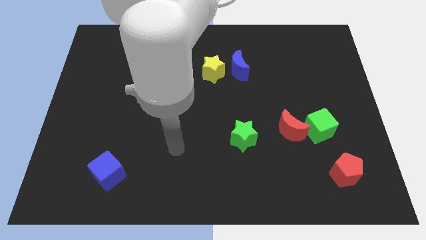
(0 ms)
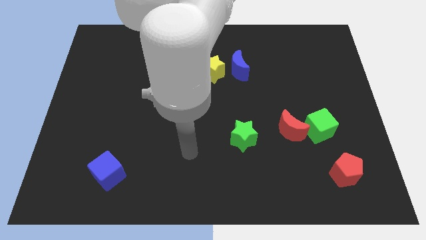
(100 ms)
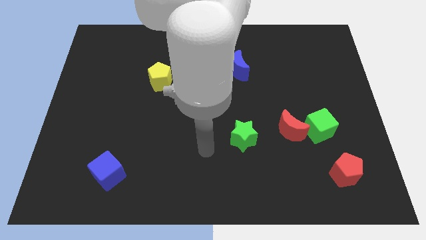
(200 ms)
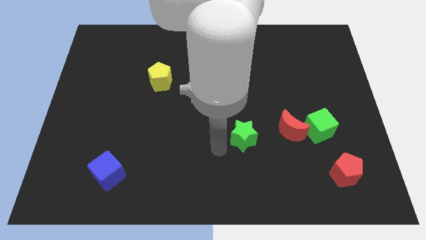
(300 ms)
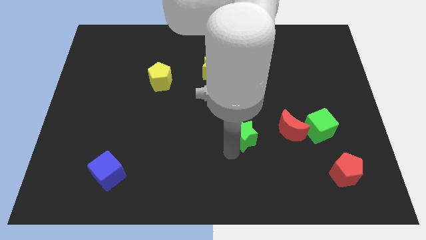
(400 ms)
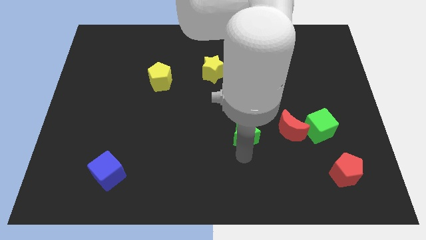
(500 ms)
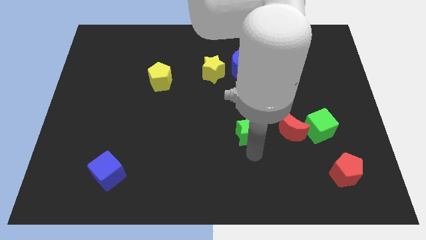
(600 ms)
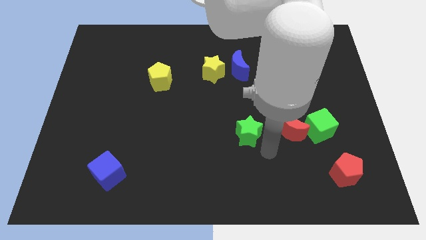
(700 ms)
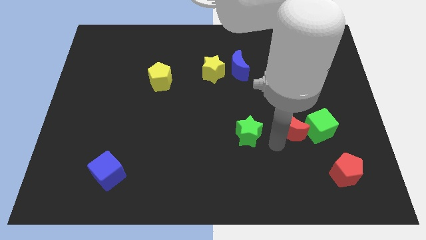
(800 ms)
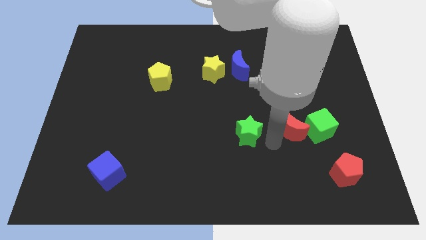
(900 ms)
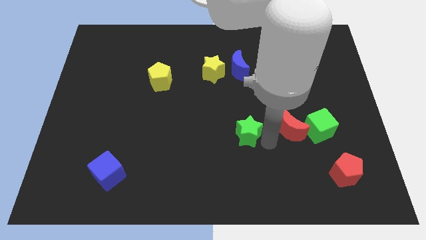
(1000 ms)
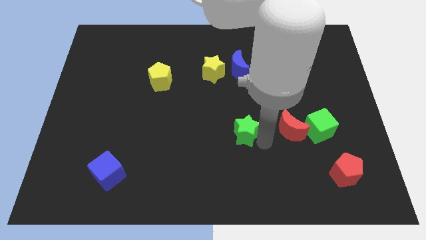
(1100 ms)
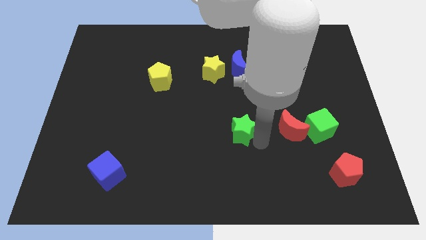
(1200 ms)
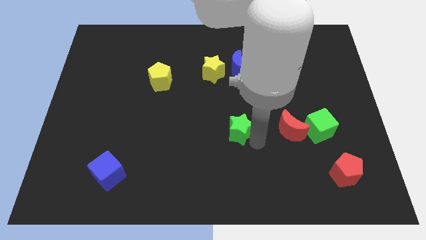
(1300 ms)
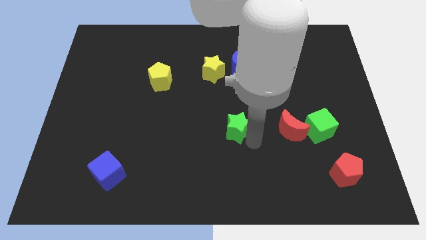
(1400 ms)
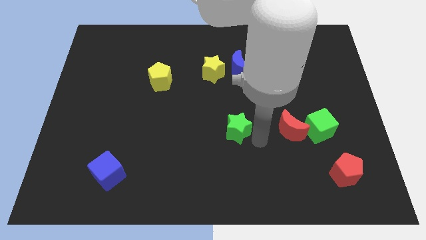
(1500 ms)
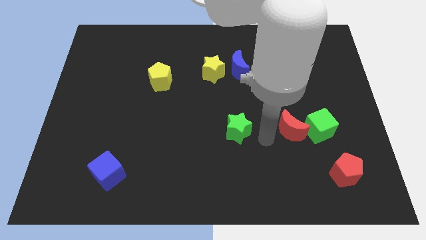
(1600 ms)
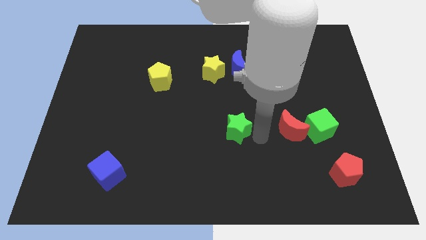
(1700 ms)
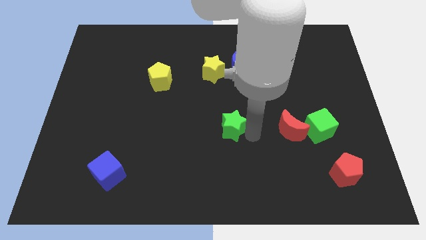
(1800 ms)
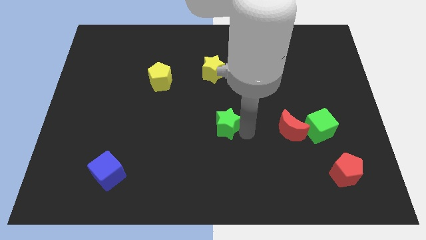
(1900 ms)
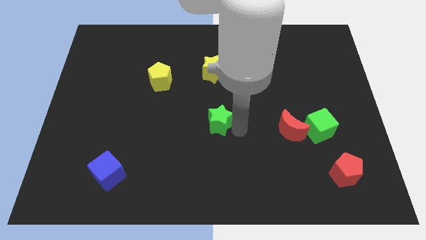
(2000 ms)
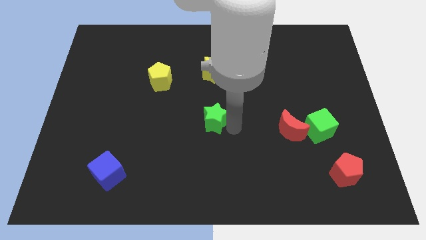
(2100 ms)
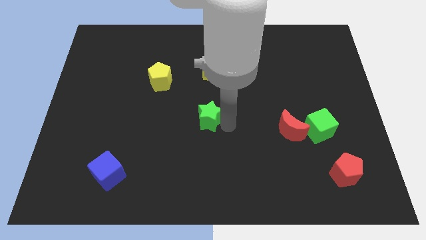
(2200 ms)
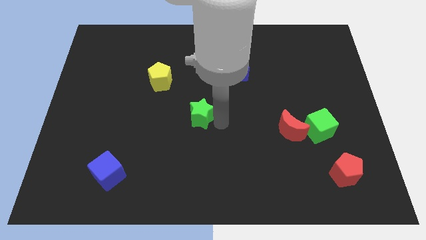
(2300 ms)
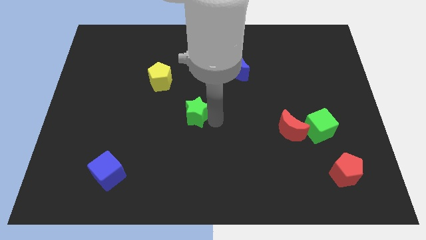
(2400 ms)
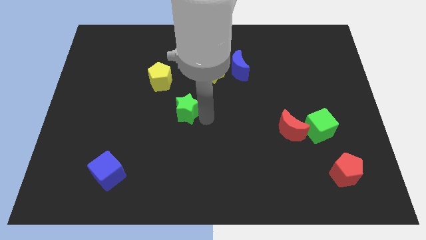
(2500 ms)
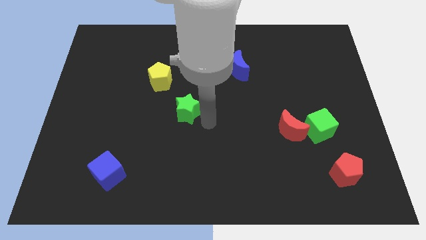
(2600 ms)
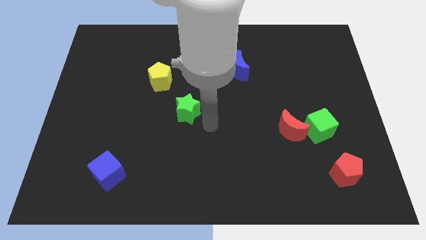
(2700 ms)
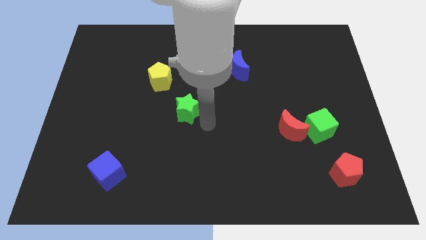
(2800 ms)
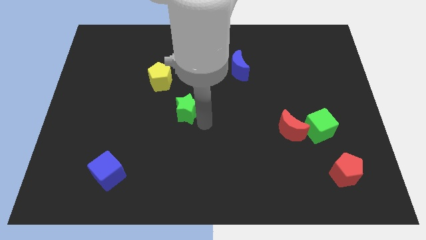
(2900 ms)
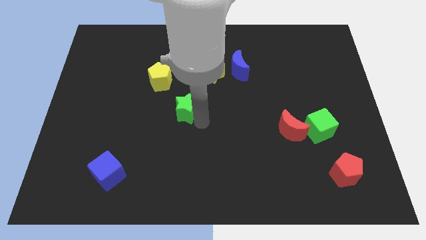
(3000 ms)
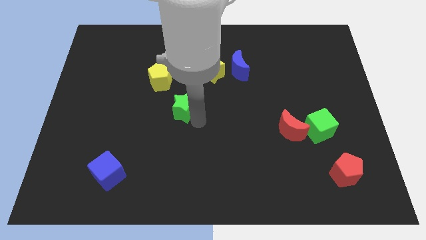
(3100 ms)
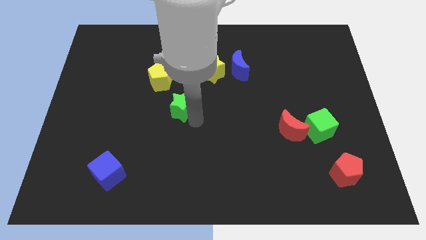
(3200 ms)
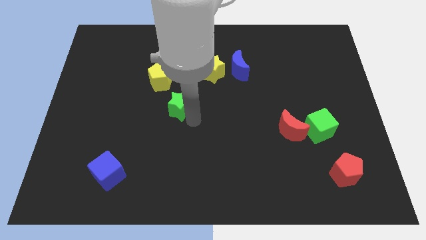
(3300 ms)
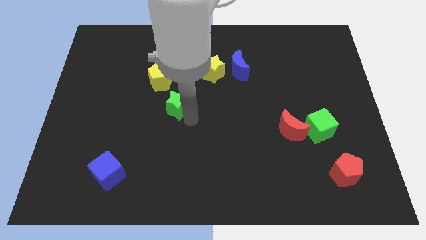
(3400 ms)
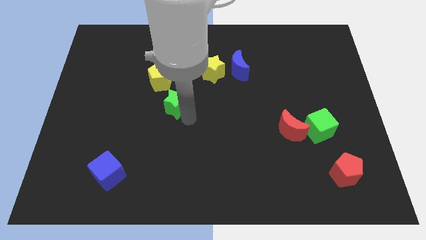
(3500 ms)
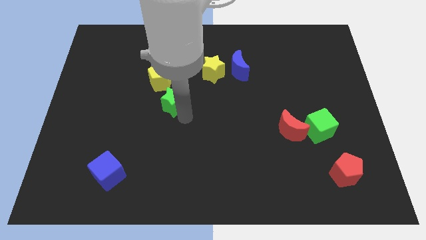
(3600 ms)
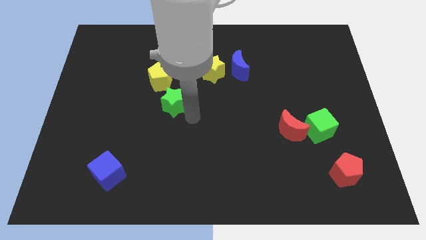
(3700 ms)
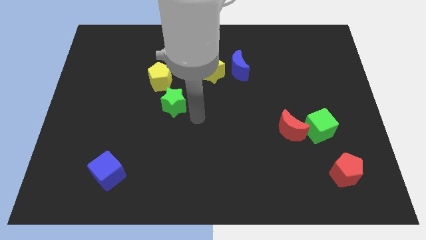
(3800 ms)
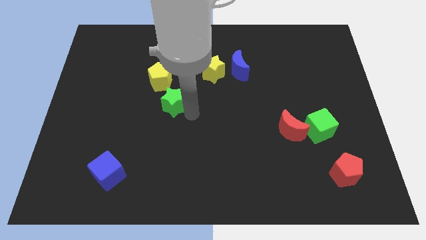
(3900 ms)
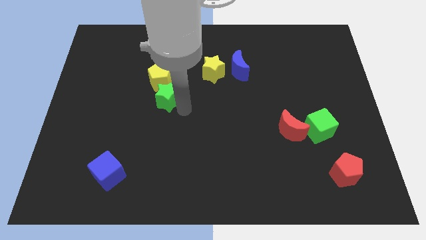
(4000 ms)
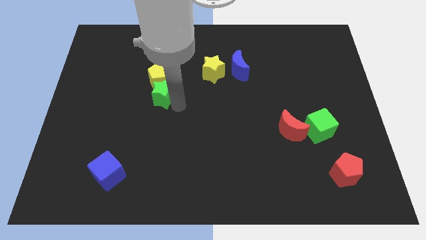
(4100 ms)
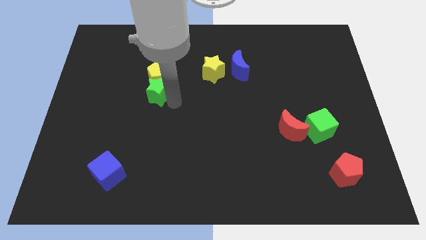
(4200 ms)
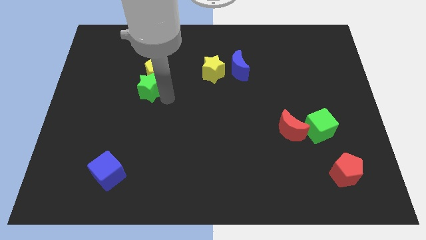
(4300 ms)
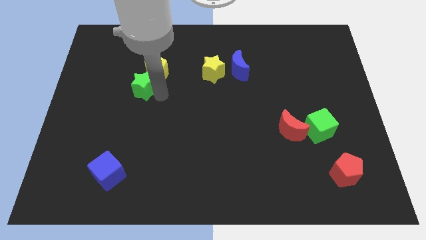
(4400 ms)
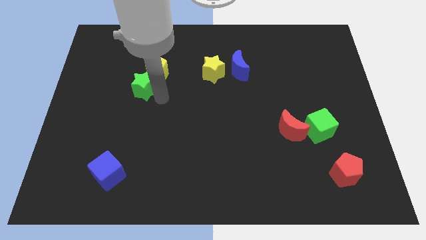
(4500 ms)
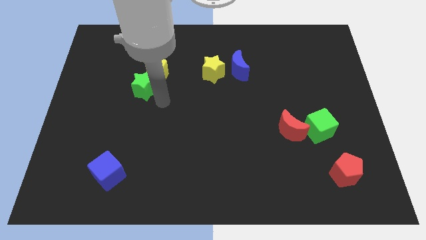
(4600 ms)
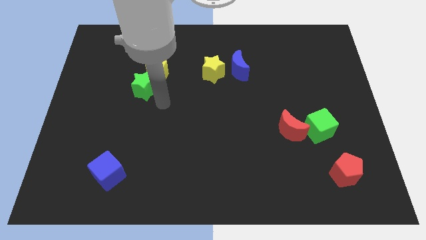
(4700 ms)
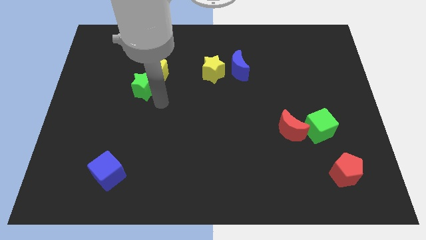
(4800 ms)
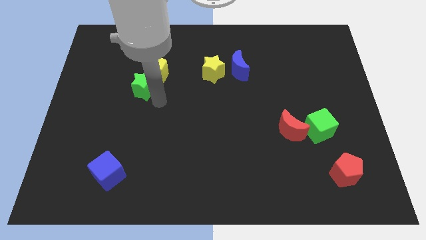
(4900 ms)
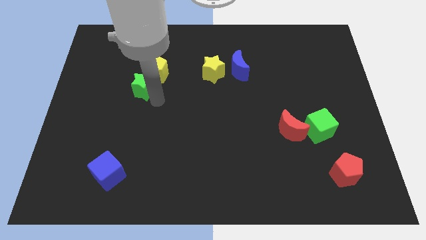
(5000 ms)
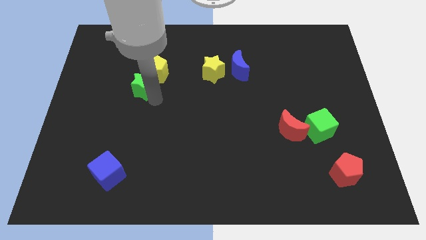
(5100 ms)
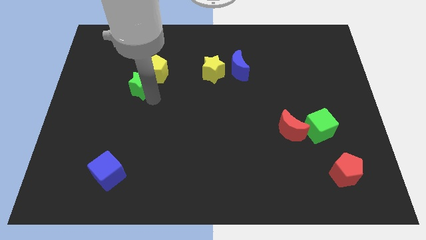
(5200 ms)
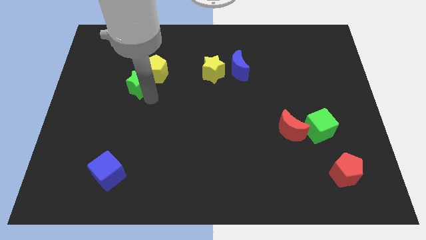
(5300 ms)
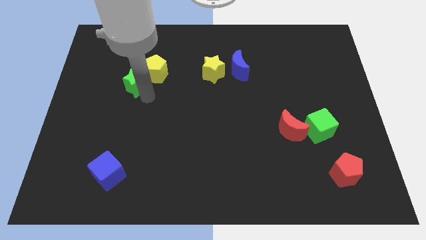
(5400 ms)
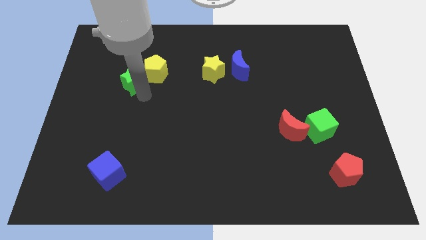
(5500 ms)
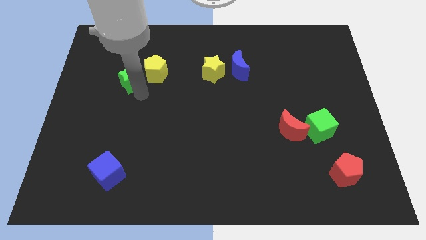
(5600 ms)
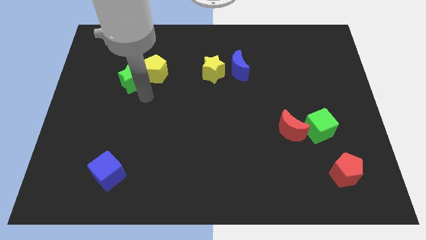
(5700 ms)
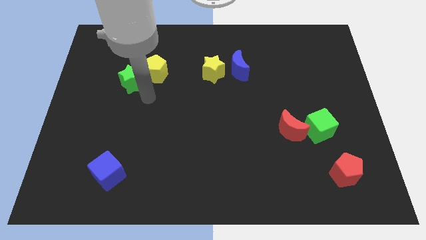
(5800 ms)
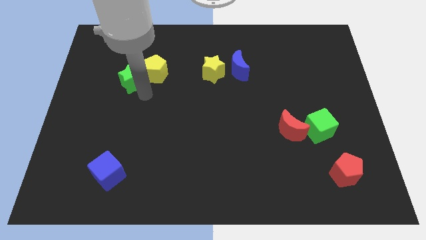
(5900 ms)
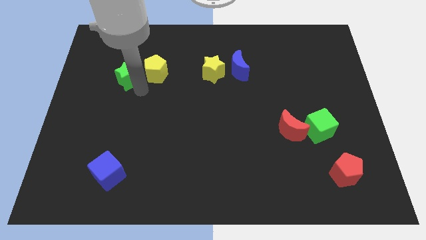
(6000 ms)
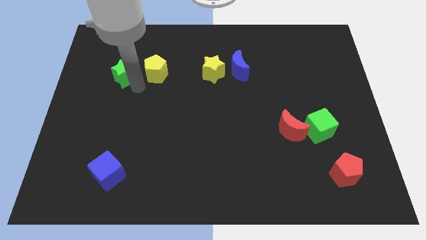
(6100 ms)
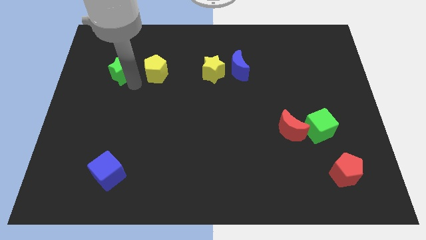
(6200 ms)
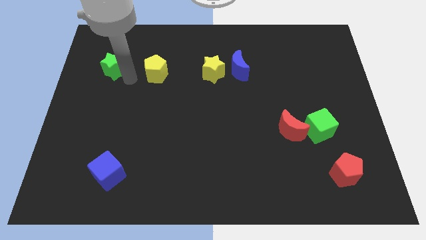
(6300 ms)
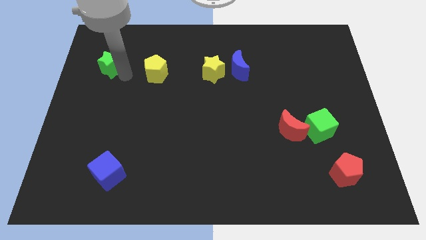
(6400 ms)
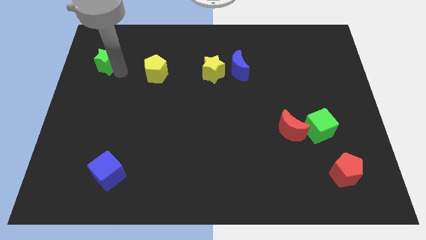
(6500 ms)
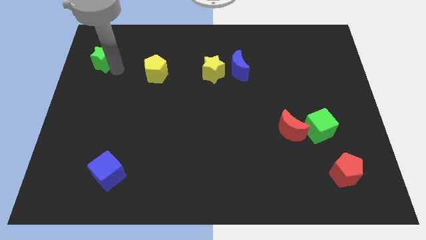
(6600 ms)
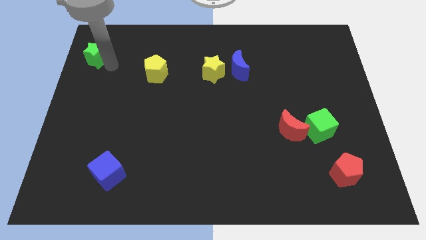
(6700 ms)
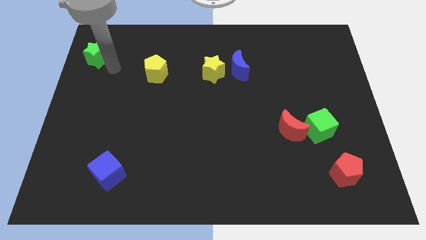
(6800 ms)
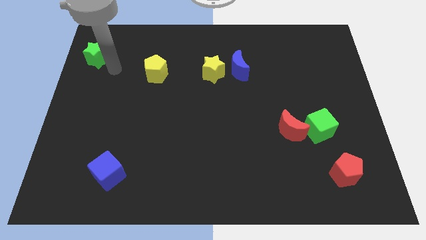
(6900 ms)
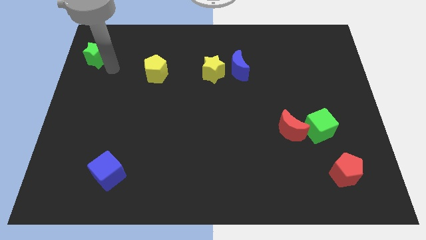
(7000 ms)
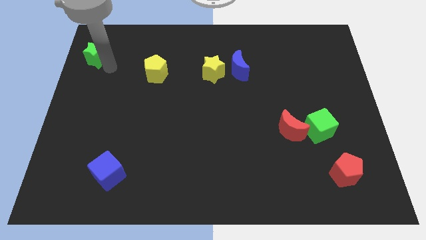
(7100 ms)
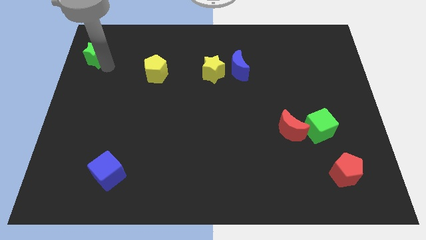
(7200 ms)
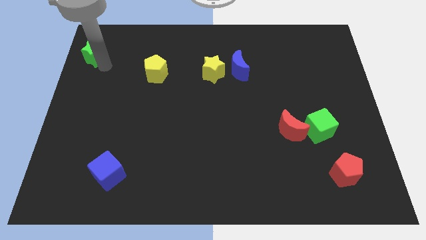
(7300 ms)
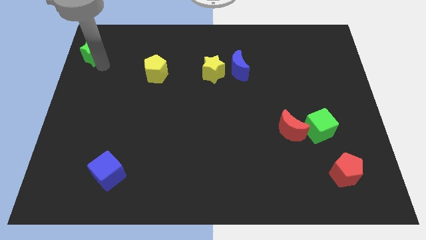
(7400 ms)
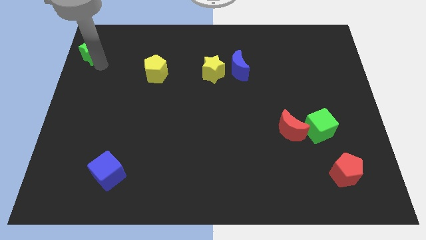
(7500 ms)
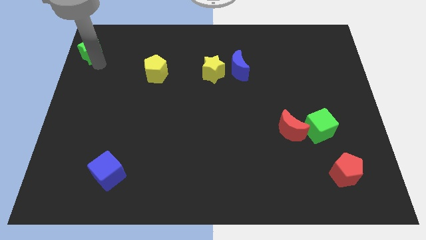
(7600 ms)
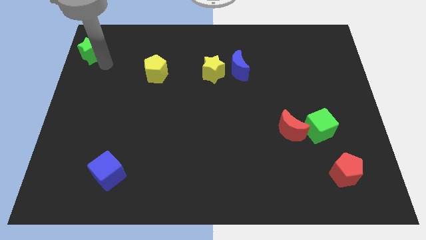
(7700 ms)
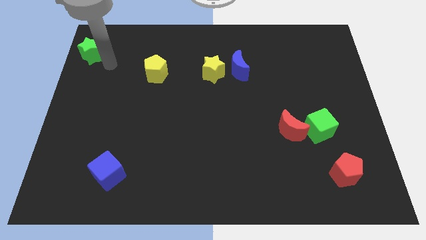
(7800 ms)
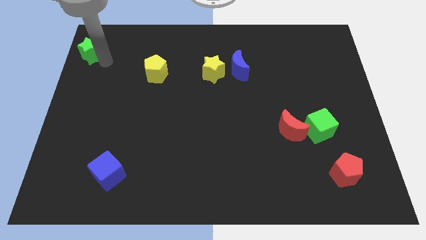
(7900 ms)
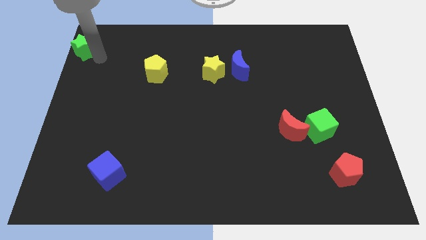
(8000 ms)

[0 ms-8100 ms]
push the green star to the top left
